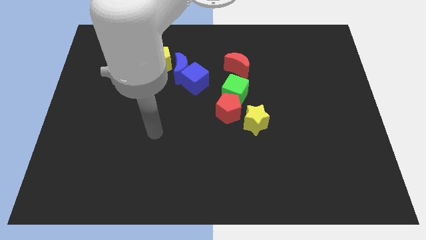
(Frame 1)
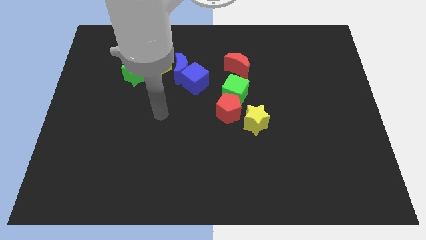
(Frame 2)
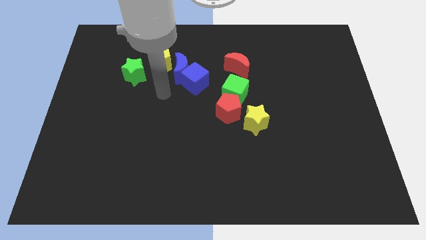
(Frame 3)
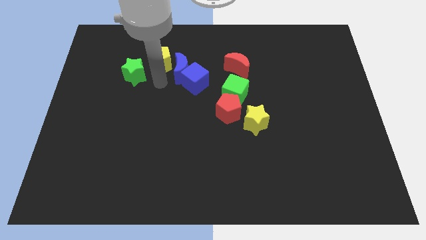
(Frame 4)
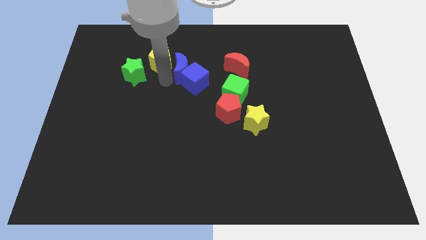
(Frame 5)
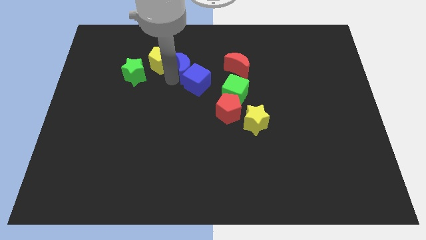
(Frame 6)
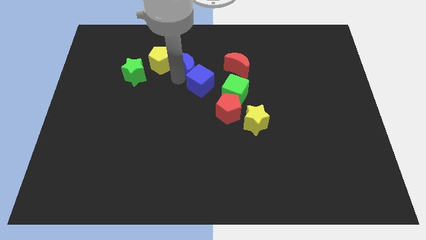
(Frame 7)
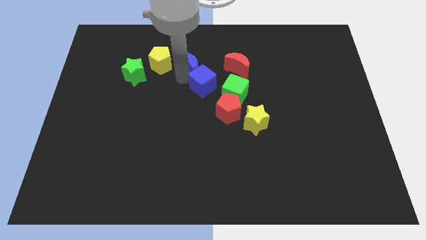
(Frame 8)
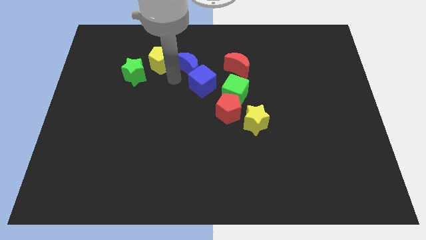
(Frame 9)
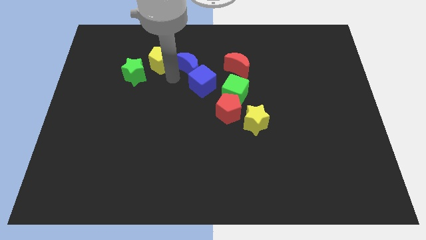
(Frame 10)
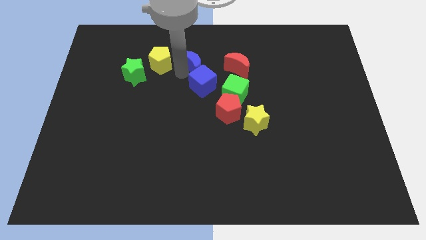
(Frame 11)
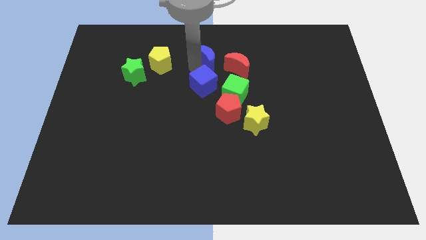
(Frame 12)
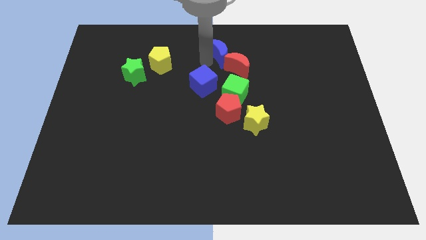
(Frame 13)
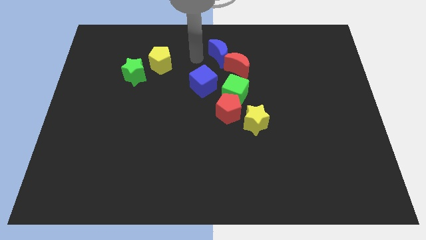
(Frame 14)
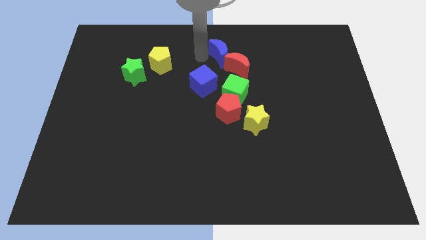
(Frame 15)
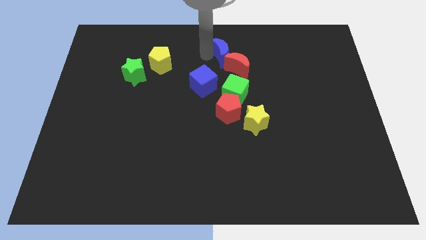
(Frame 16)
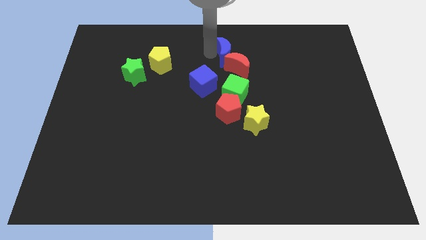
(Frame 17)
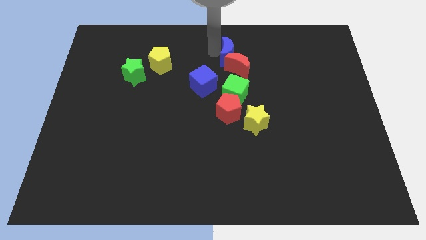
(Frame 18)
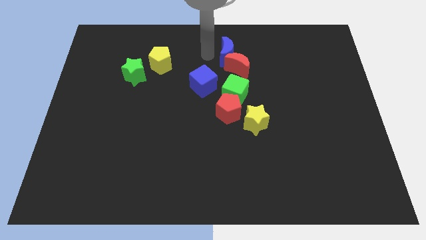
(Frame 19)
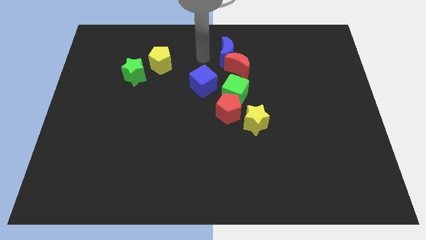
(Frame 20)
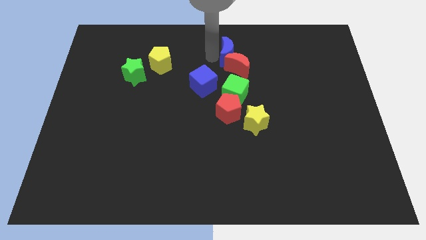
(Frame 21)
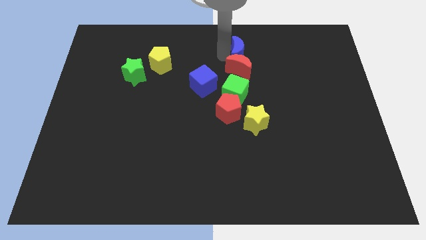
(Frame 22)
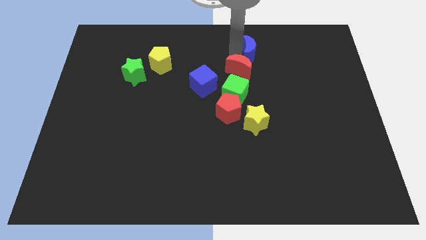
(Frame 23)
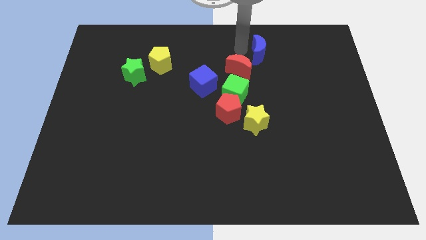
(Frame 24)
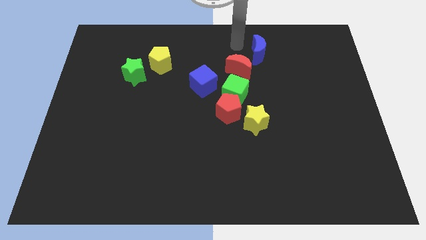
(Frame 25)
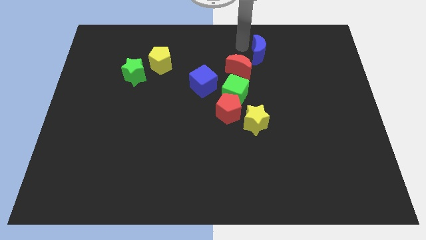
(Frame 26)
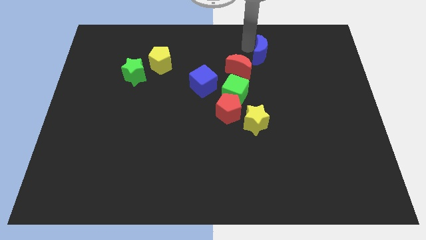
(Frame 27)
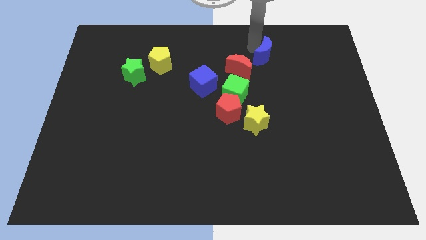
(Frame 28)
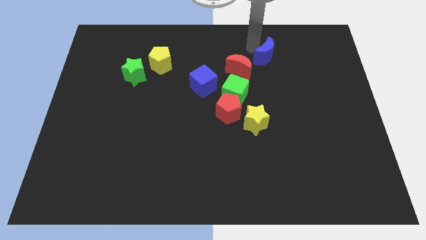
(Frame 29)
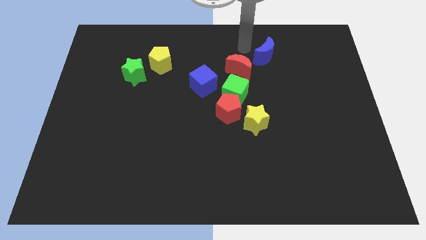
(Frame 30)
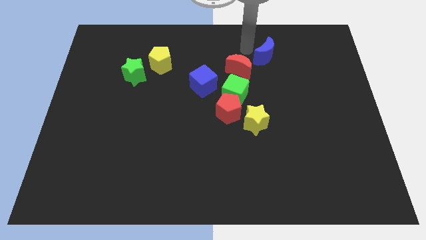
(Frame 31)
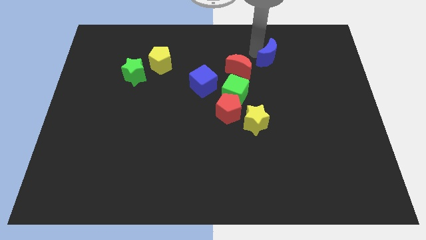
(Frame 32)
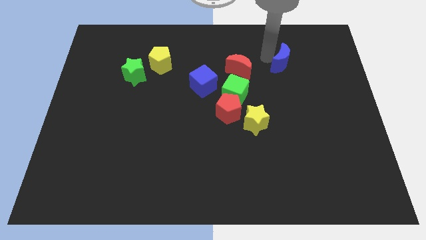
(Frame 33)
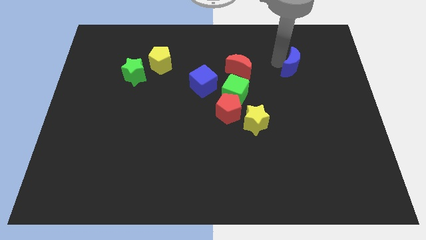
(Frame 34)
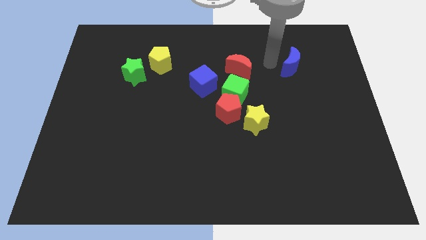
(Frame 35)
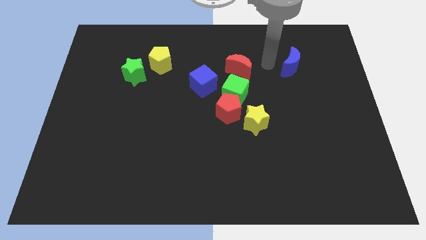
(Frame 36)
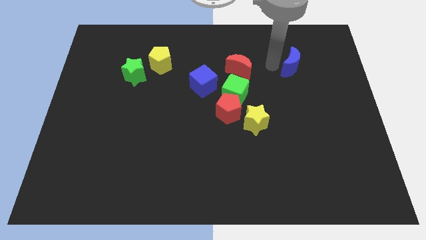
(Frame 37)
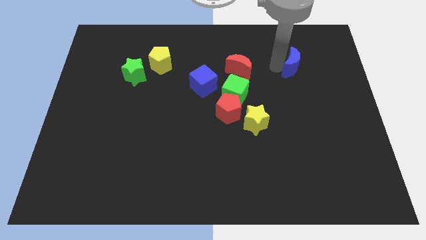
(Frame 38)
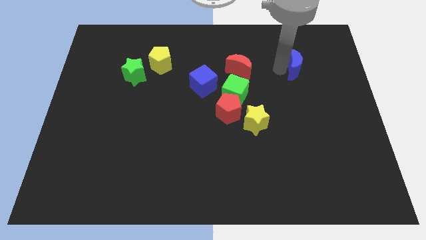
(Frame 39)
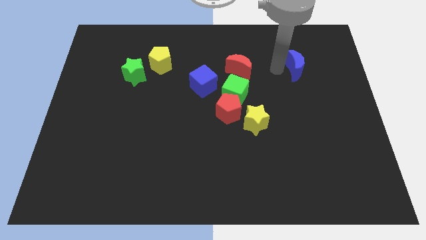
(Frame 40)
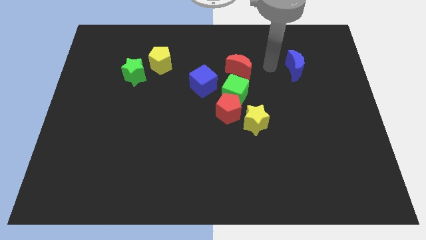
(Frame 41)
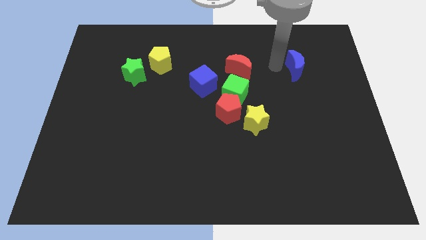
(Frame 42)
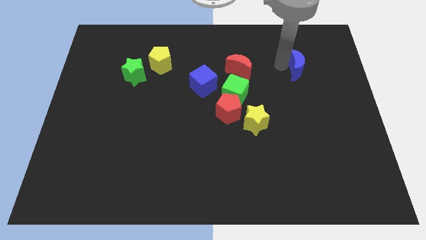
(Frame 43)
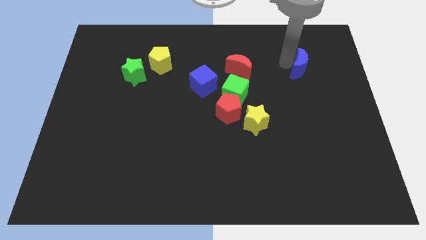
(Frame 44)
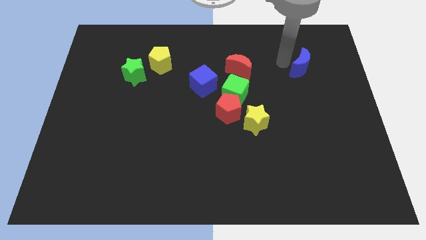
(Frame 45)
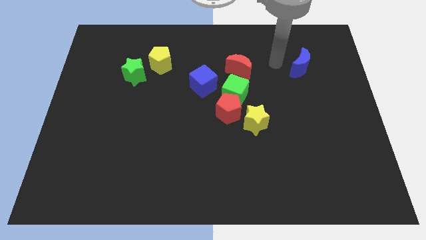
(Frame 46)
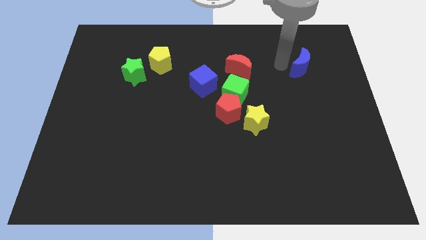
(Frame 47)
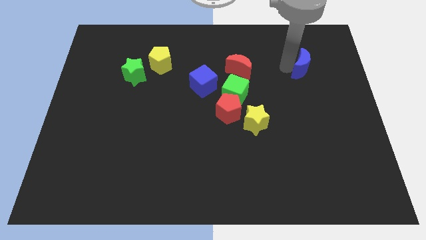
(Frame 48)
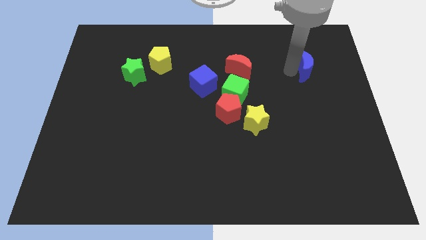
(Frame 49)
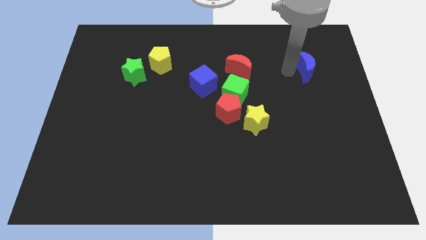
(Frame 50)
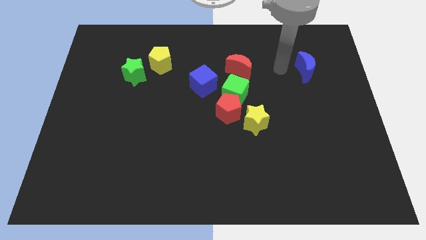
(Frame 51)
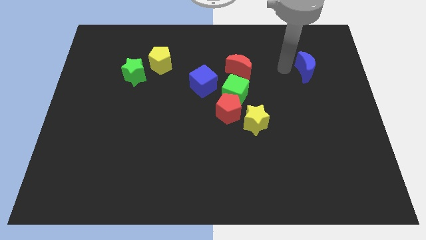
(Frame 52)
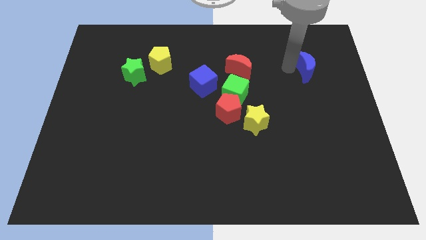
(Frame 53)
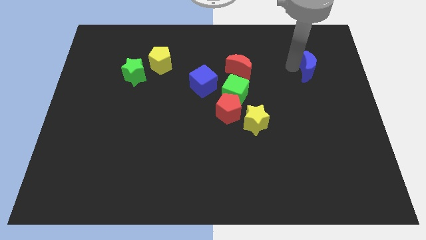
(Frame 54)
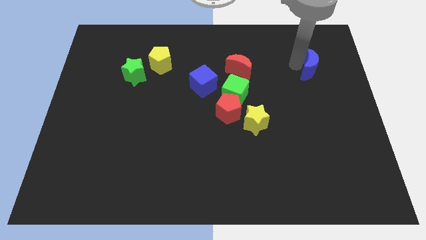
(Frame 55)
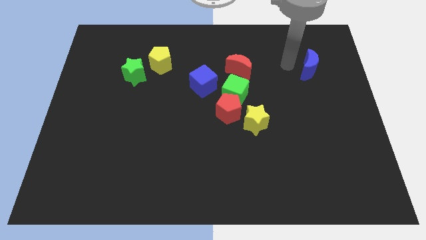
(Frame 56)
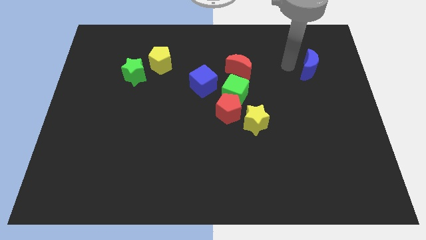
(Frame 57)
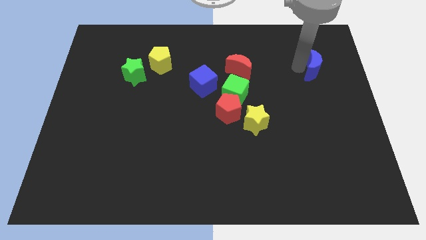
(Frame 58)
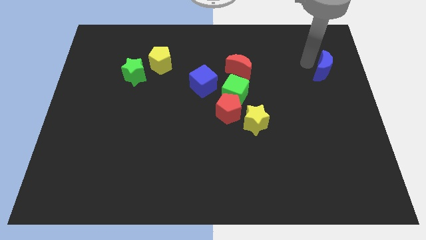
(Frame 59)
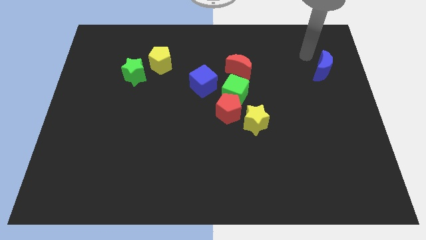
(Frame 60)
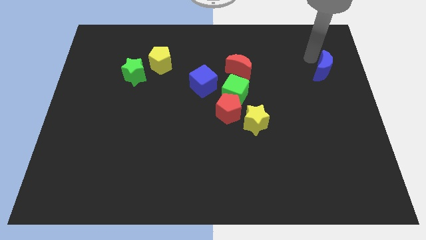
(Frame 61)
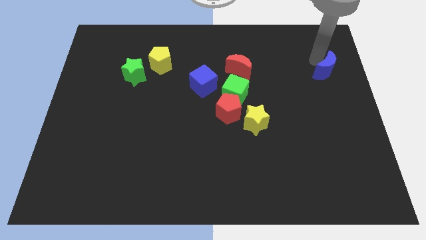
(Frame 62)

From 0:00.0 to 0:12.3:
slide the blue moon to the right side of the board
